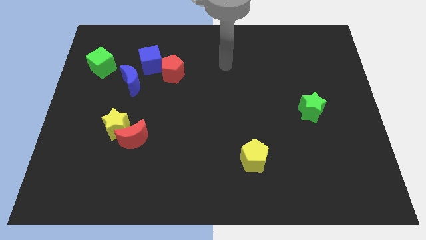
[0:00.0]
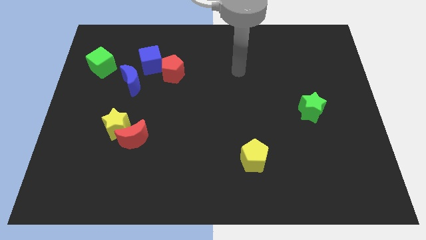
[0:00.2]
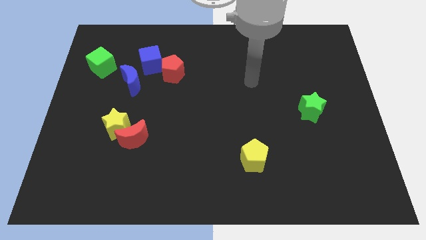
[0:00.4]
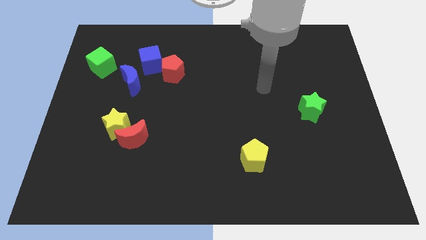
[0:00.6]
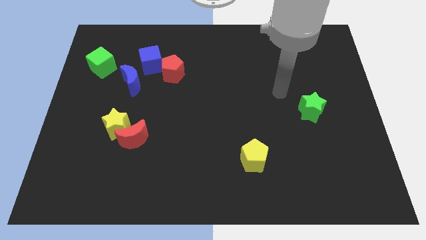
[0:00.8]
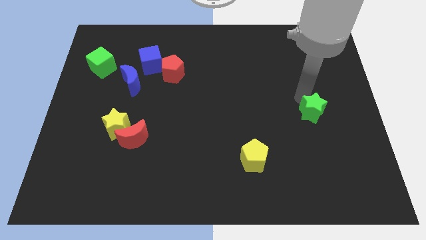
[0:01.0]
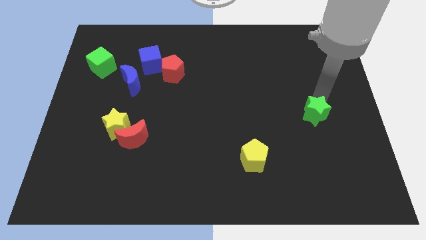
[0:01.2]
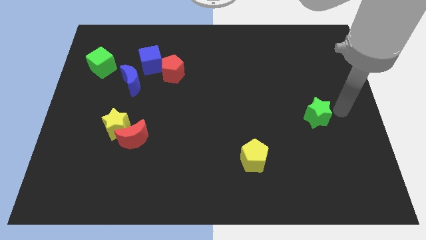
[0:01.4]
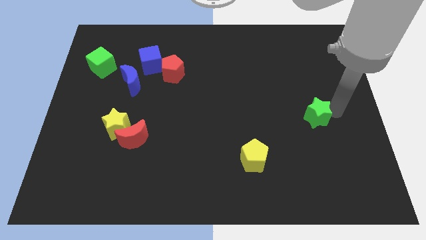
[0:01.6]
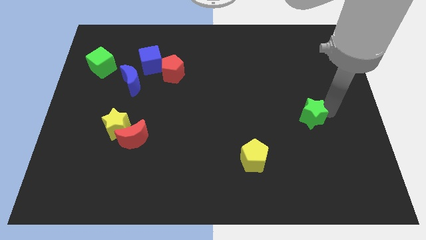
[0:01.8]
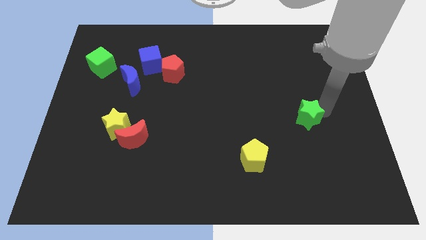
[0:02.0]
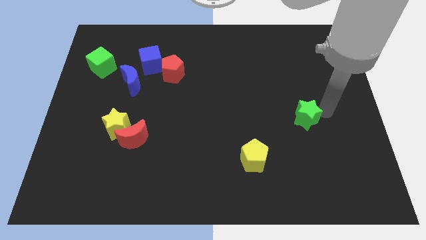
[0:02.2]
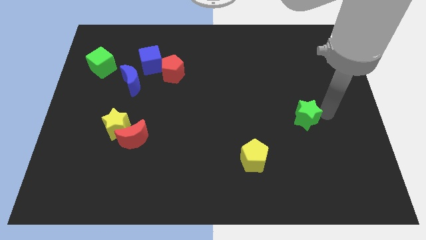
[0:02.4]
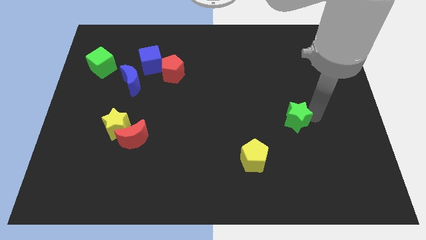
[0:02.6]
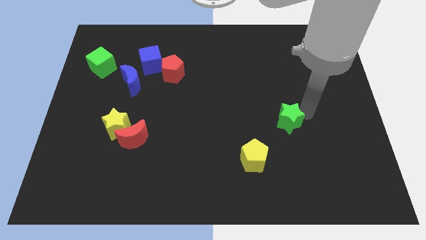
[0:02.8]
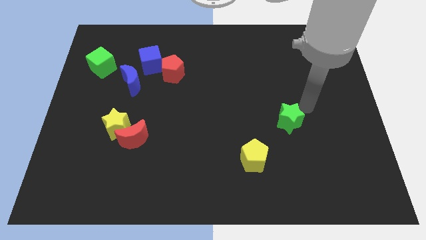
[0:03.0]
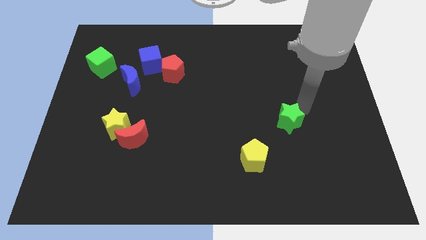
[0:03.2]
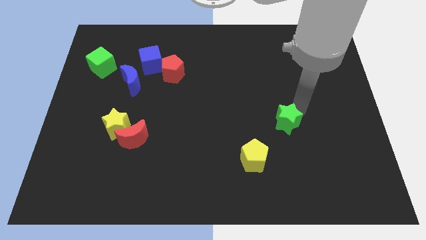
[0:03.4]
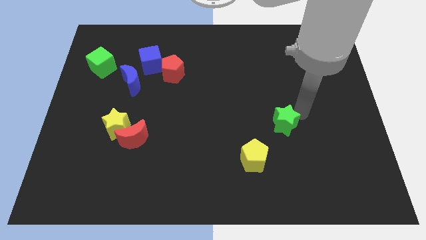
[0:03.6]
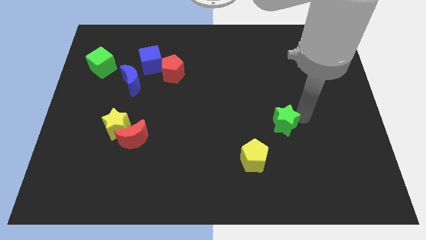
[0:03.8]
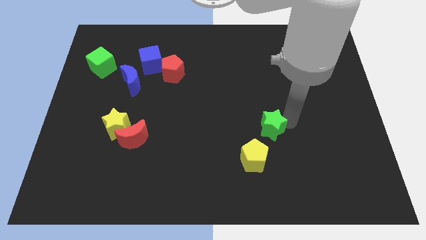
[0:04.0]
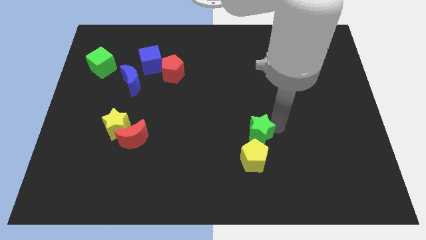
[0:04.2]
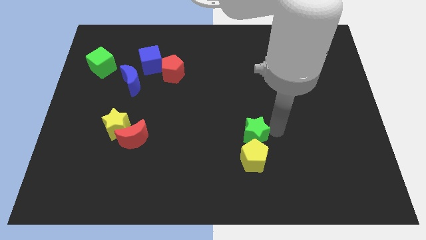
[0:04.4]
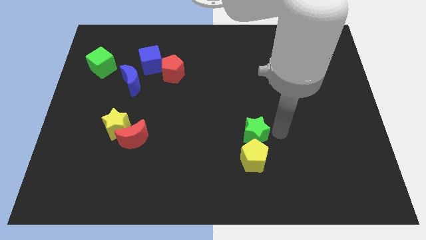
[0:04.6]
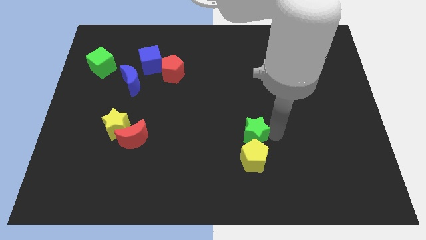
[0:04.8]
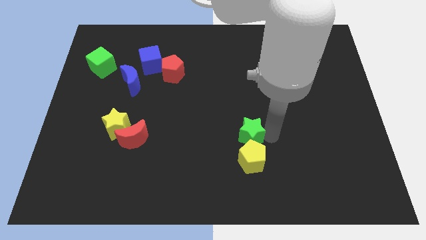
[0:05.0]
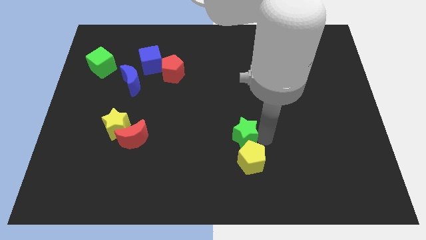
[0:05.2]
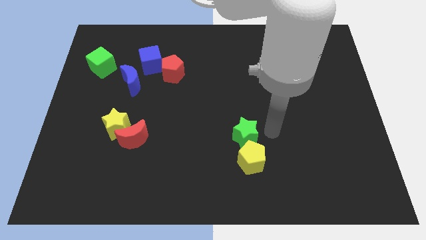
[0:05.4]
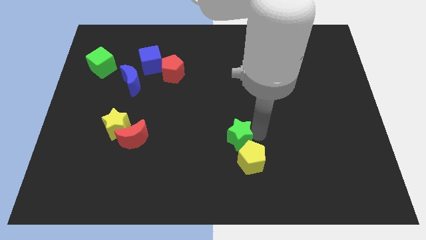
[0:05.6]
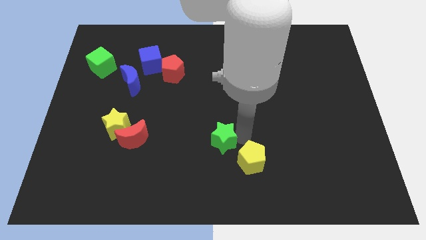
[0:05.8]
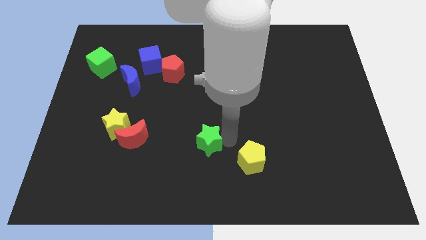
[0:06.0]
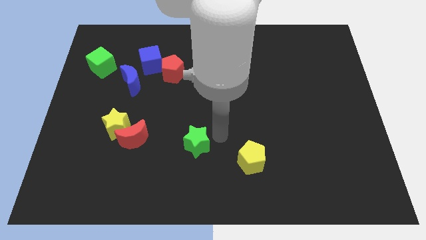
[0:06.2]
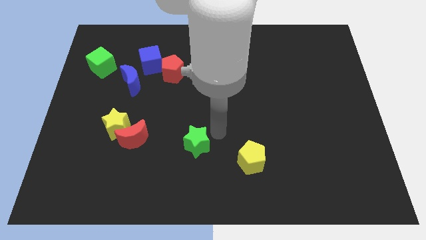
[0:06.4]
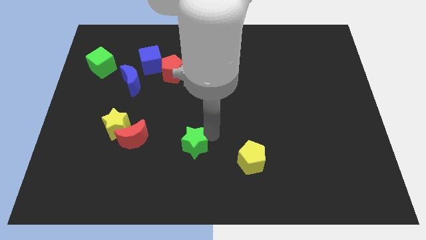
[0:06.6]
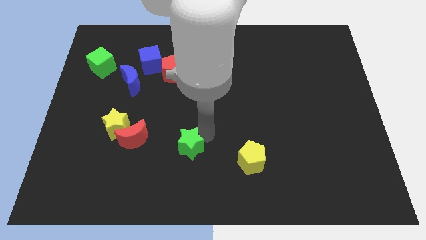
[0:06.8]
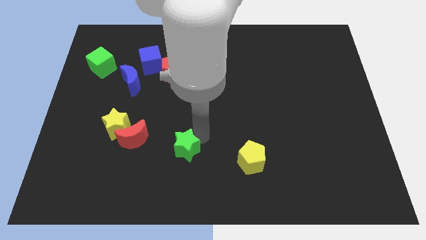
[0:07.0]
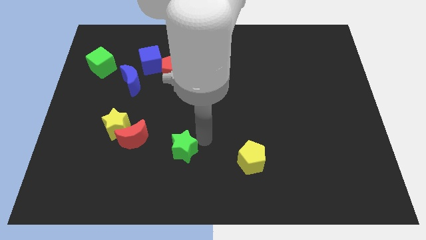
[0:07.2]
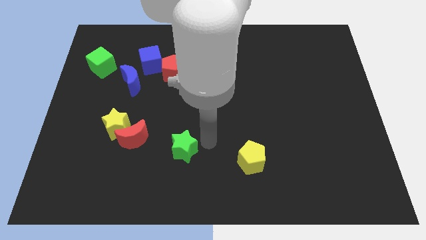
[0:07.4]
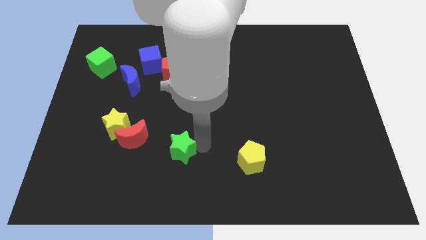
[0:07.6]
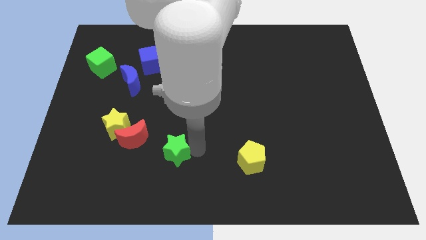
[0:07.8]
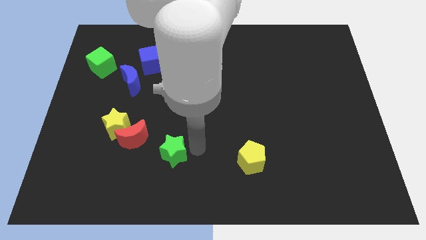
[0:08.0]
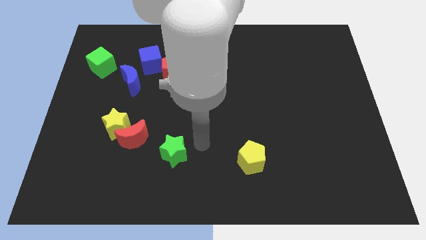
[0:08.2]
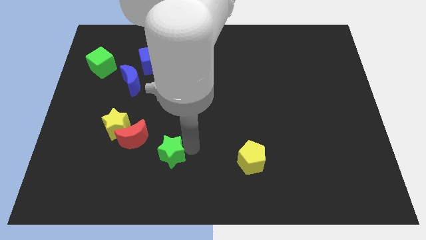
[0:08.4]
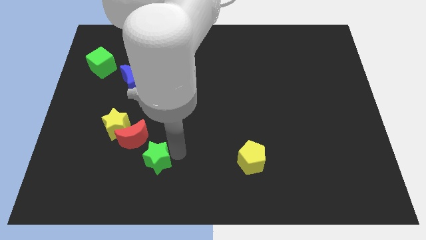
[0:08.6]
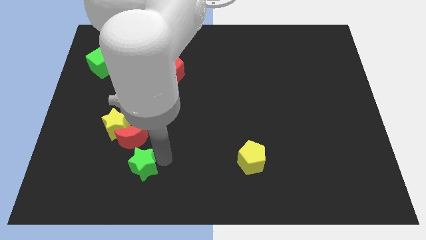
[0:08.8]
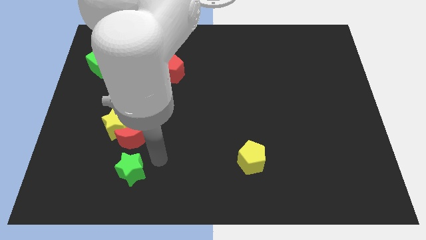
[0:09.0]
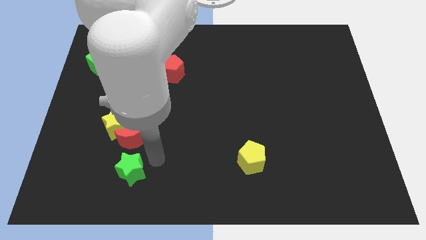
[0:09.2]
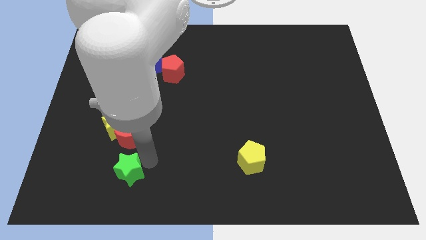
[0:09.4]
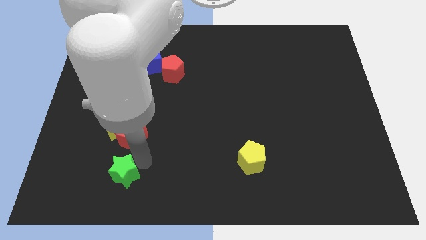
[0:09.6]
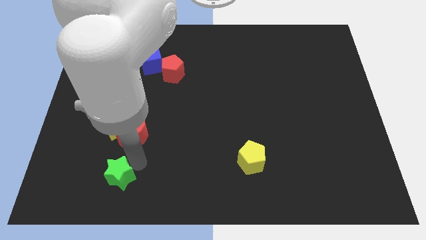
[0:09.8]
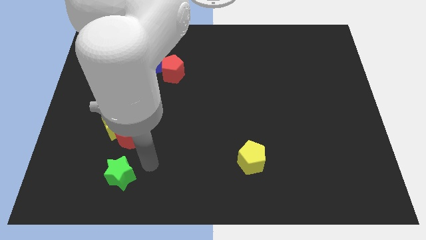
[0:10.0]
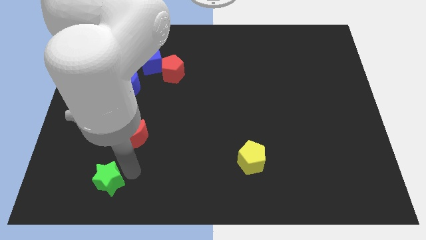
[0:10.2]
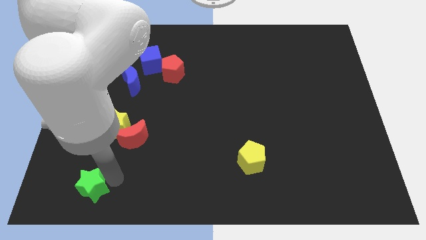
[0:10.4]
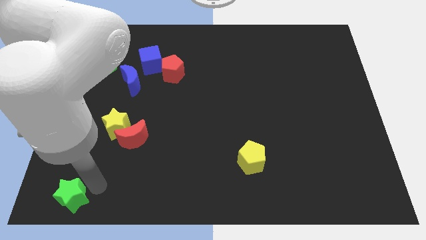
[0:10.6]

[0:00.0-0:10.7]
slide the green star to the bottom left

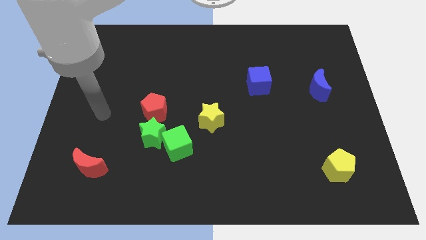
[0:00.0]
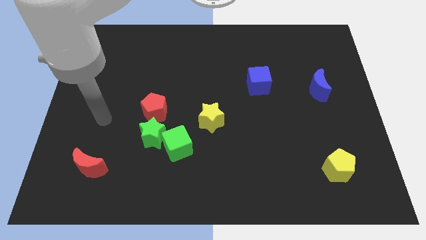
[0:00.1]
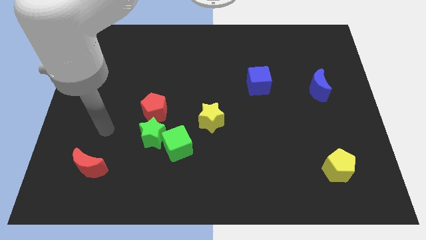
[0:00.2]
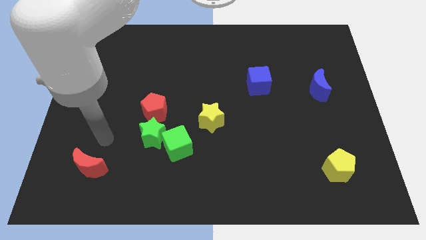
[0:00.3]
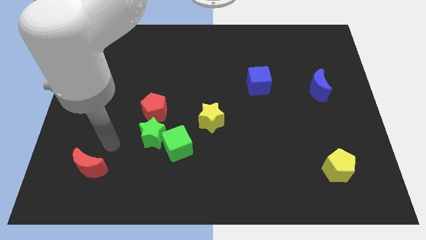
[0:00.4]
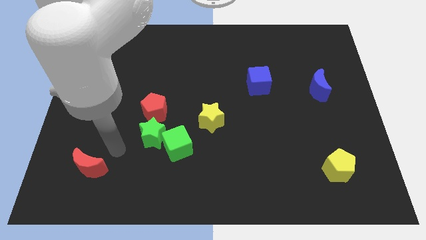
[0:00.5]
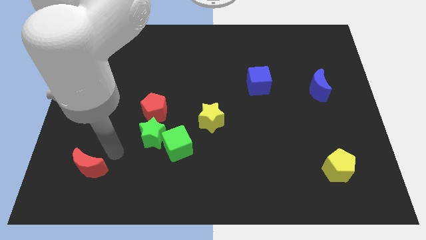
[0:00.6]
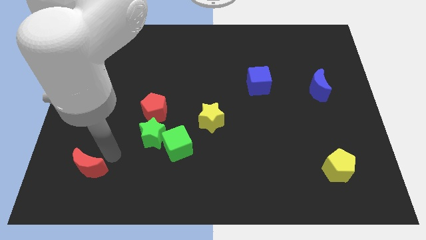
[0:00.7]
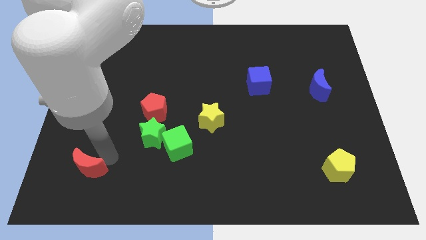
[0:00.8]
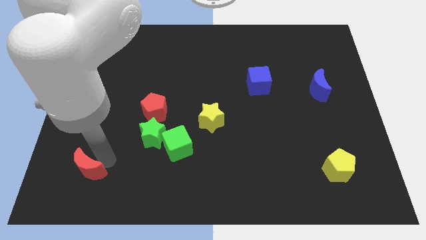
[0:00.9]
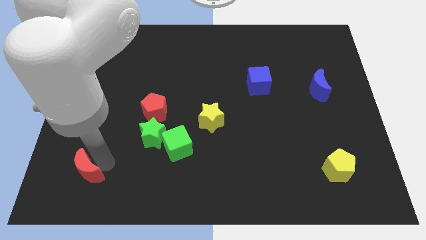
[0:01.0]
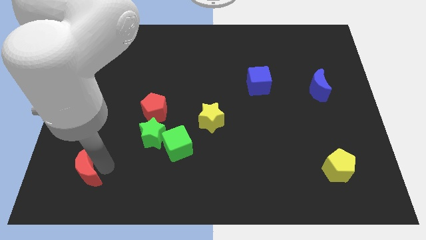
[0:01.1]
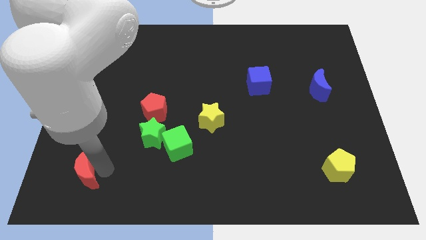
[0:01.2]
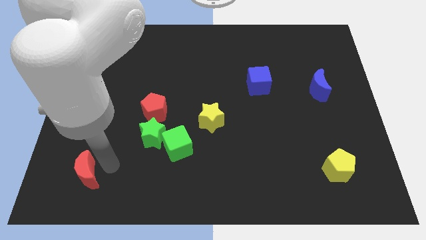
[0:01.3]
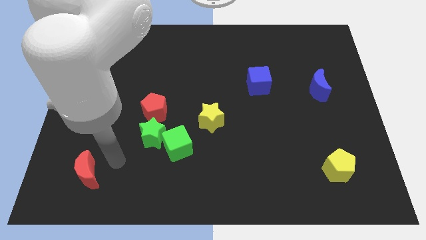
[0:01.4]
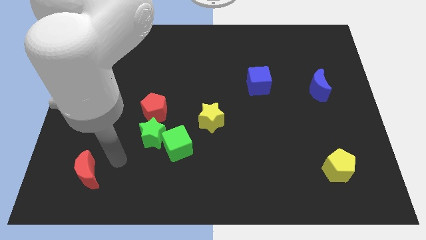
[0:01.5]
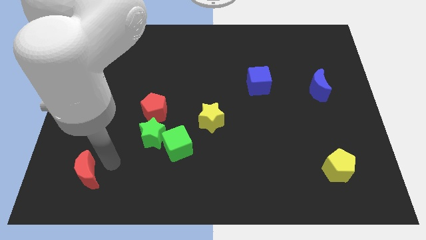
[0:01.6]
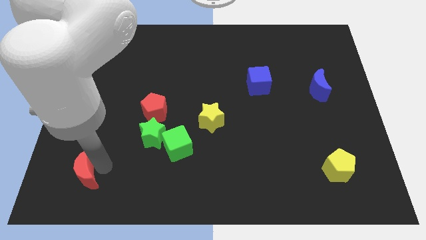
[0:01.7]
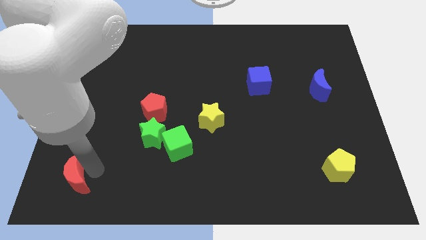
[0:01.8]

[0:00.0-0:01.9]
move the red moon to the bottom left corner
